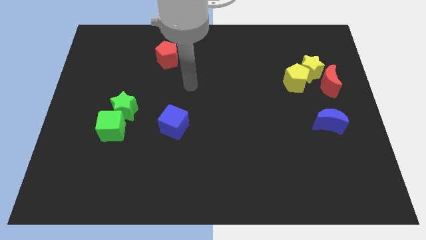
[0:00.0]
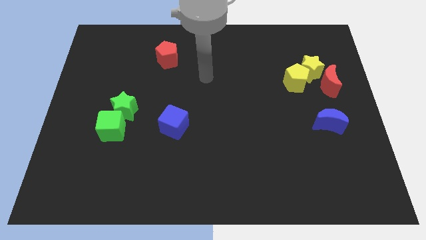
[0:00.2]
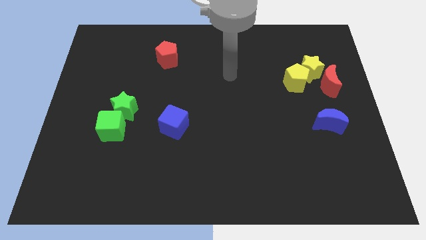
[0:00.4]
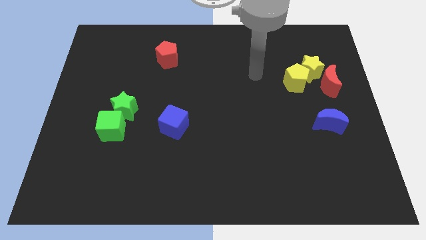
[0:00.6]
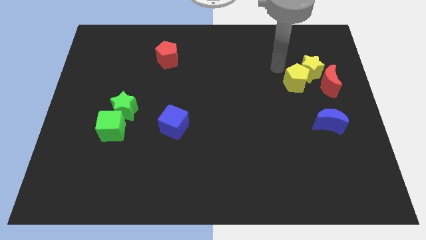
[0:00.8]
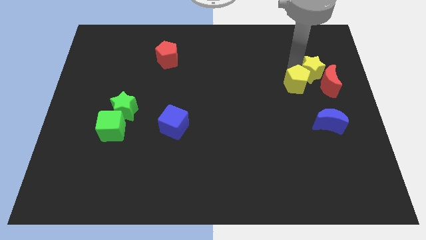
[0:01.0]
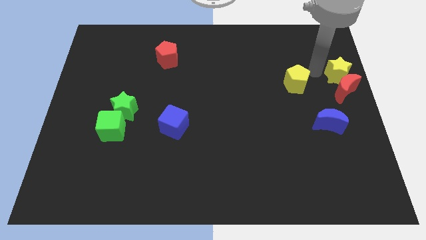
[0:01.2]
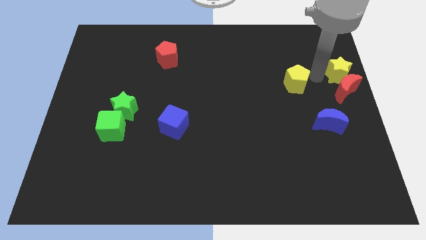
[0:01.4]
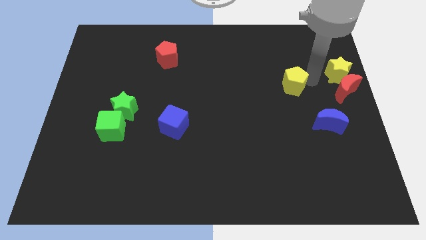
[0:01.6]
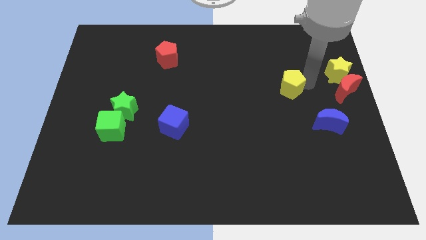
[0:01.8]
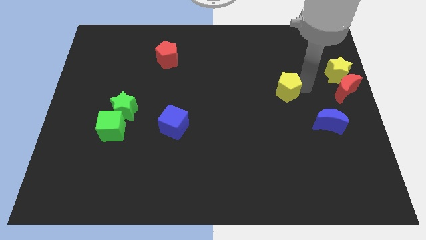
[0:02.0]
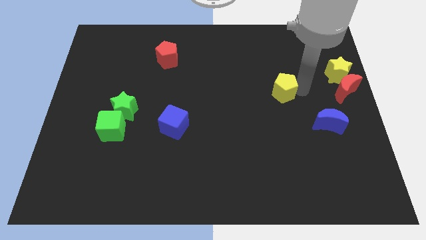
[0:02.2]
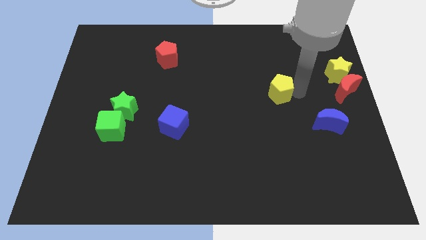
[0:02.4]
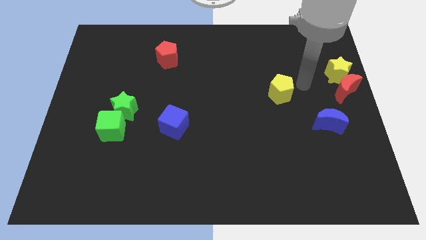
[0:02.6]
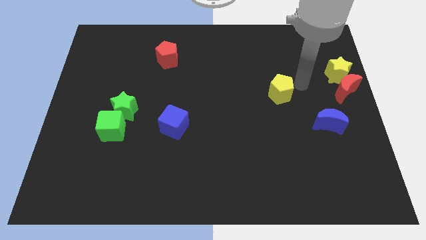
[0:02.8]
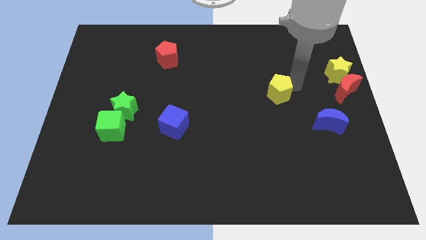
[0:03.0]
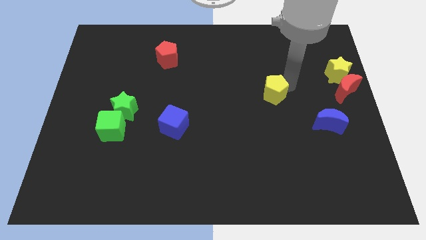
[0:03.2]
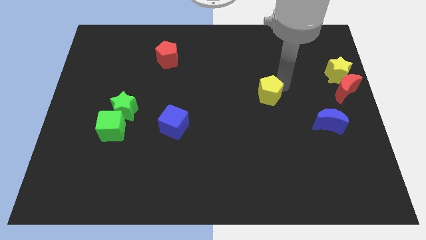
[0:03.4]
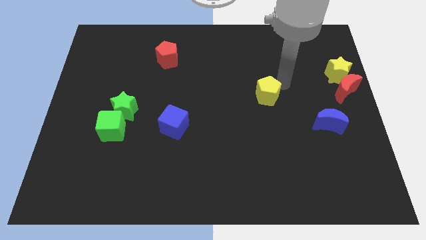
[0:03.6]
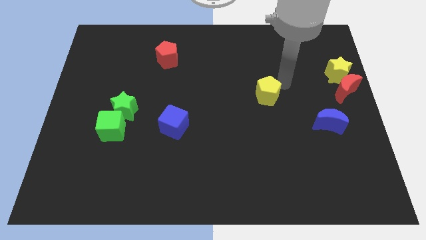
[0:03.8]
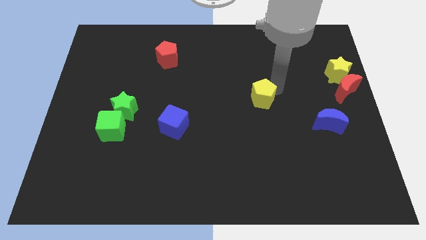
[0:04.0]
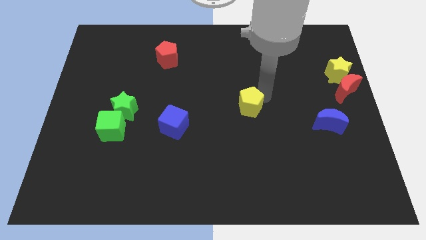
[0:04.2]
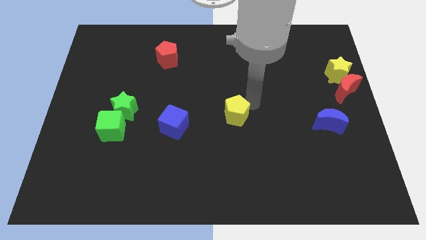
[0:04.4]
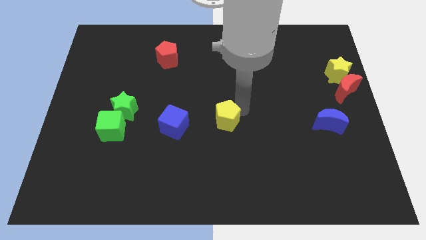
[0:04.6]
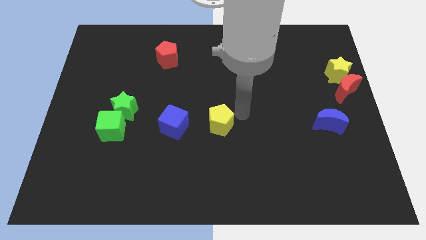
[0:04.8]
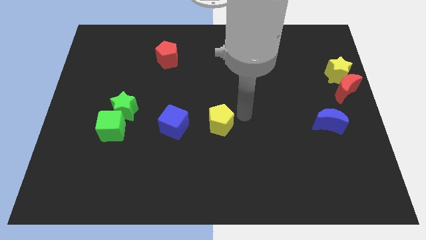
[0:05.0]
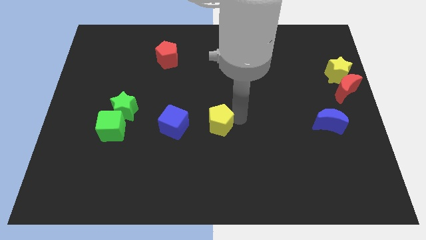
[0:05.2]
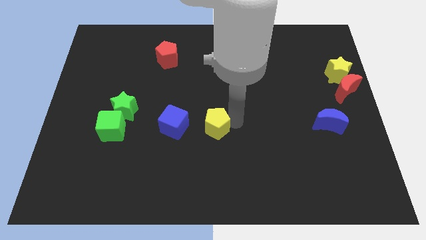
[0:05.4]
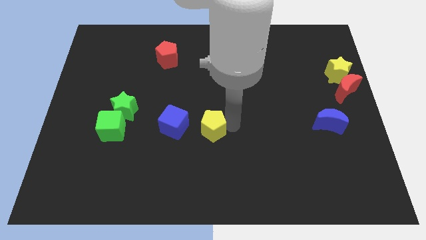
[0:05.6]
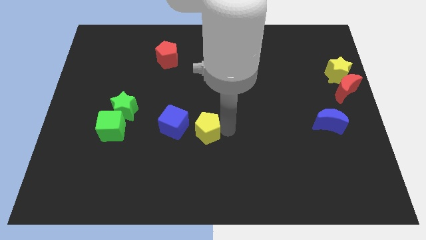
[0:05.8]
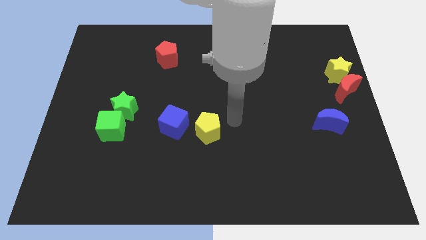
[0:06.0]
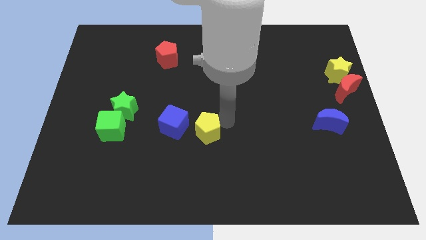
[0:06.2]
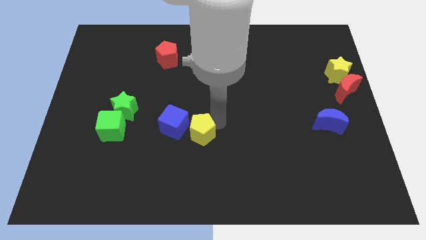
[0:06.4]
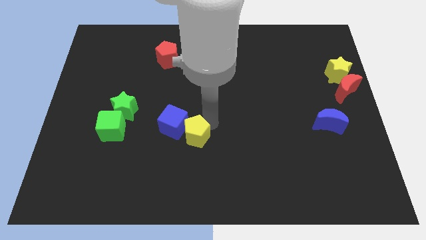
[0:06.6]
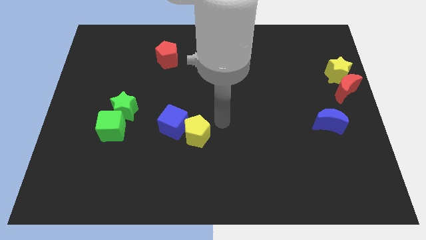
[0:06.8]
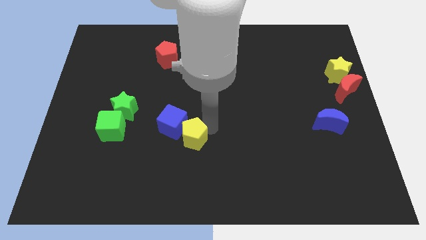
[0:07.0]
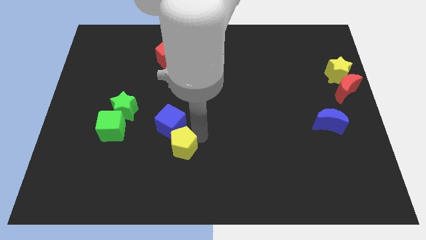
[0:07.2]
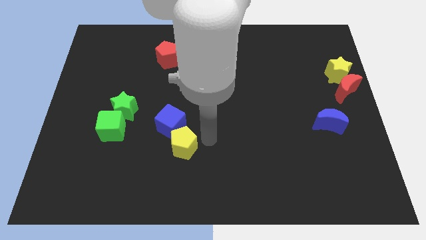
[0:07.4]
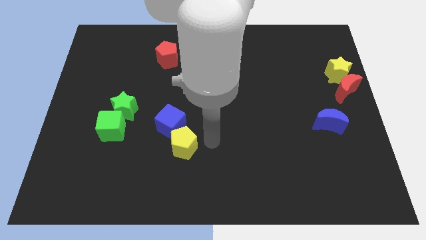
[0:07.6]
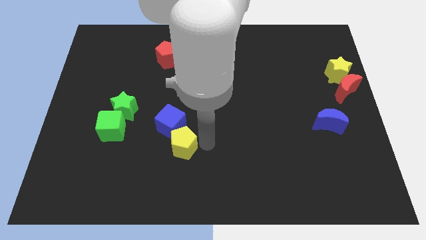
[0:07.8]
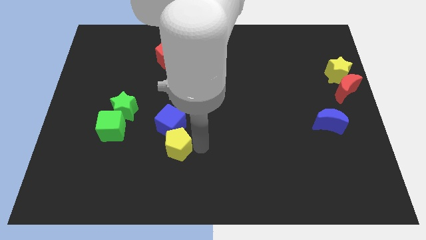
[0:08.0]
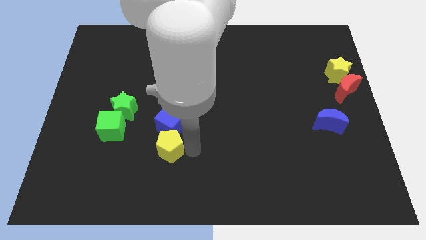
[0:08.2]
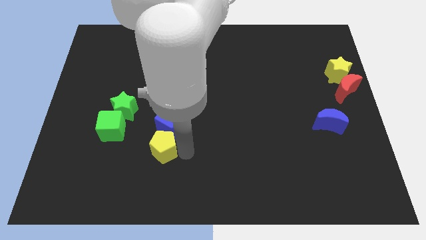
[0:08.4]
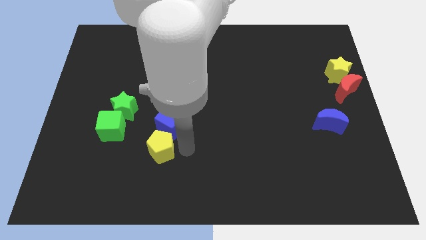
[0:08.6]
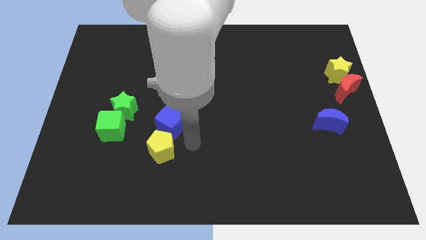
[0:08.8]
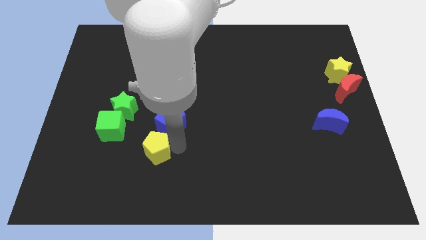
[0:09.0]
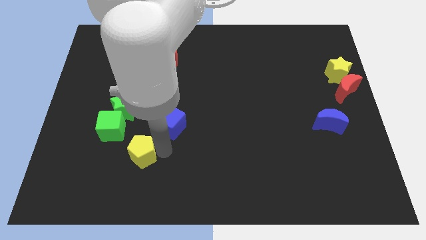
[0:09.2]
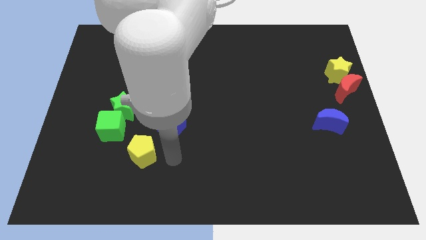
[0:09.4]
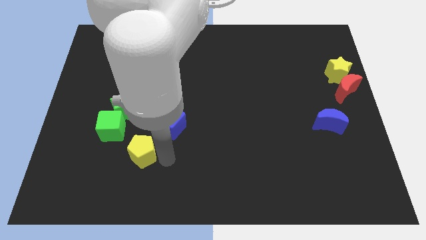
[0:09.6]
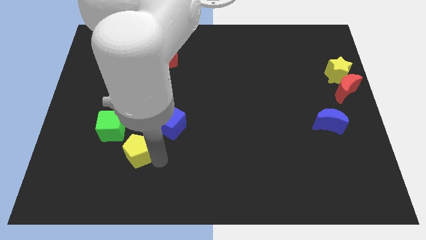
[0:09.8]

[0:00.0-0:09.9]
slide the yellow pentagon to the bottom of the green star

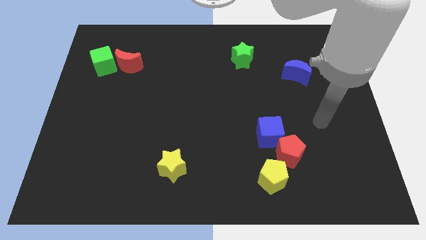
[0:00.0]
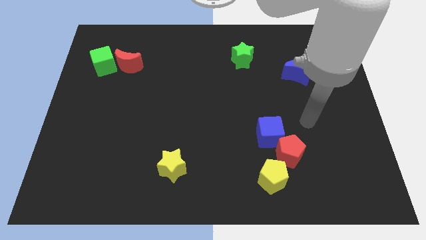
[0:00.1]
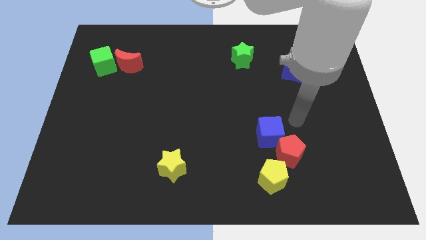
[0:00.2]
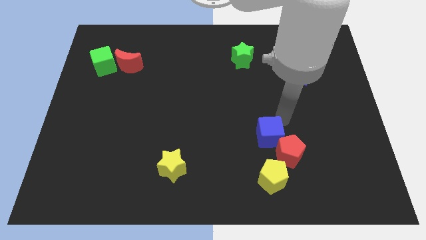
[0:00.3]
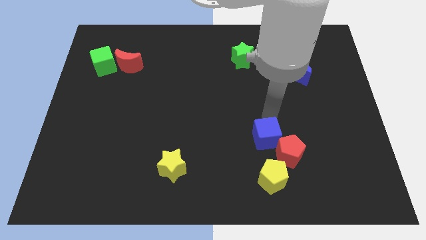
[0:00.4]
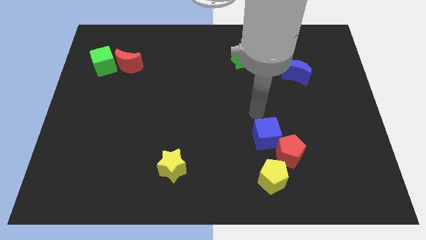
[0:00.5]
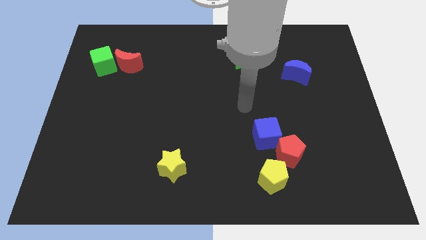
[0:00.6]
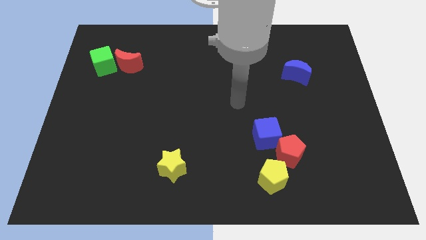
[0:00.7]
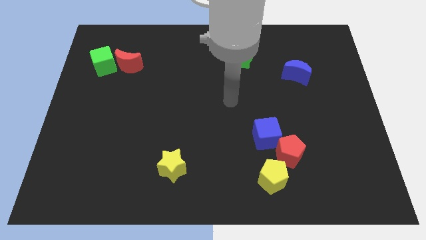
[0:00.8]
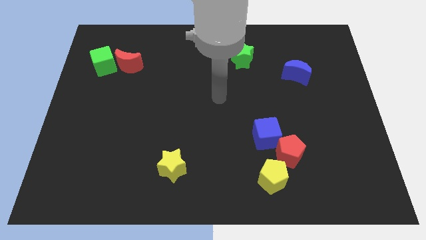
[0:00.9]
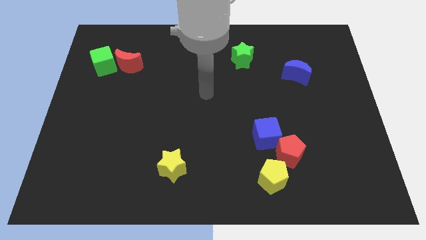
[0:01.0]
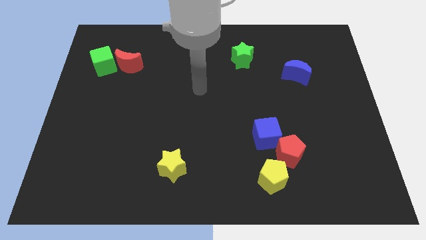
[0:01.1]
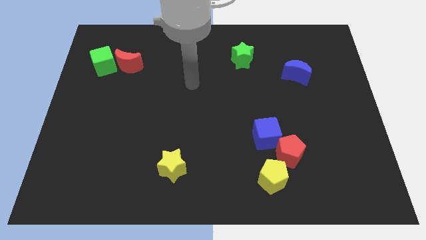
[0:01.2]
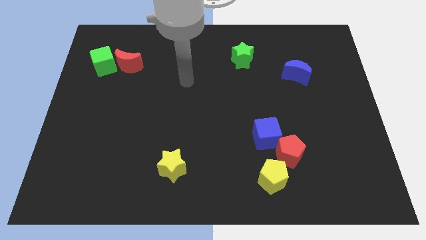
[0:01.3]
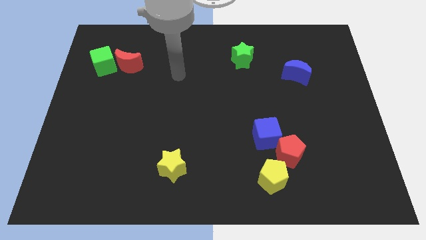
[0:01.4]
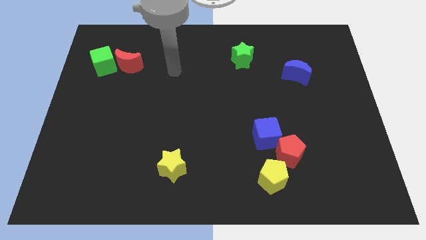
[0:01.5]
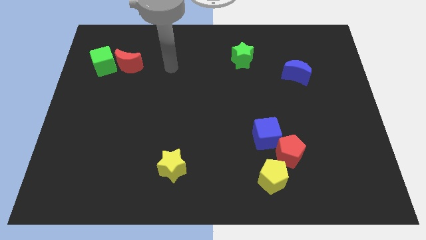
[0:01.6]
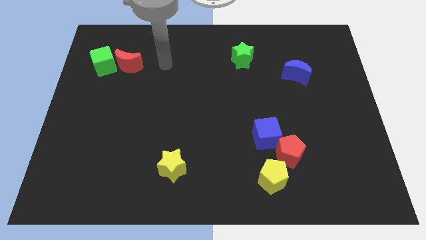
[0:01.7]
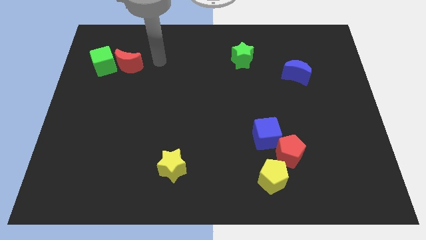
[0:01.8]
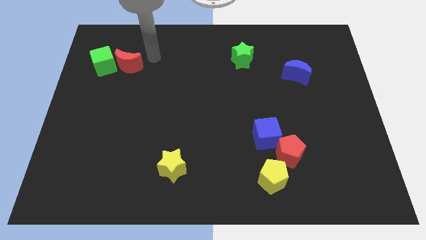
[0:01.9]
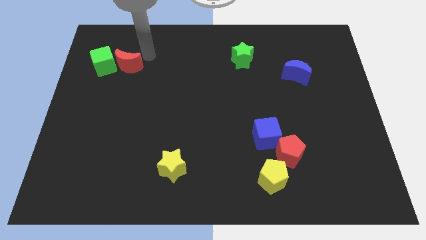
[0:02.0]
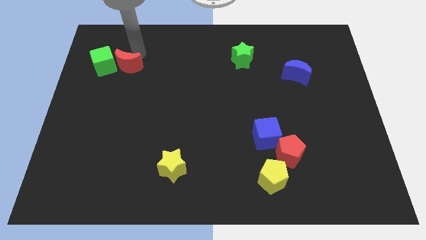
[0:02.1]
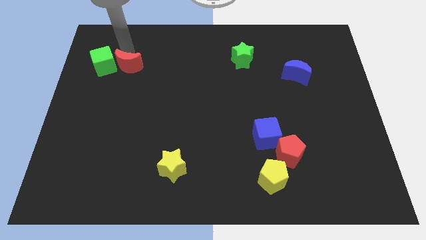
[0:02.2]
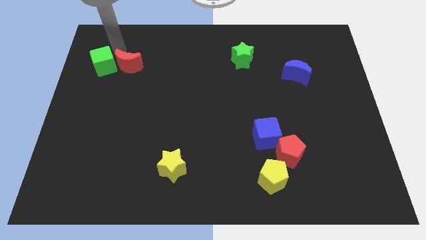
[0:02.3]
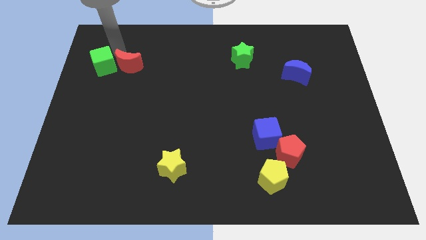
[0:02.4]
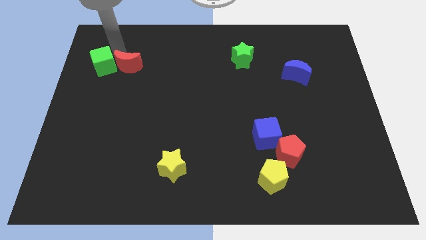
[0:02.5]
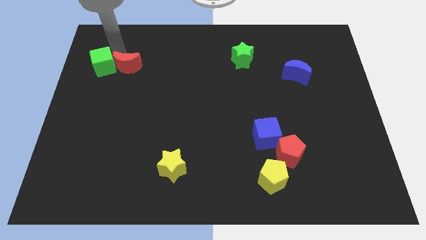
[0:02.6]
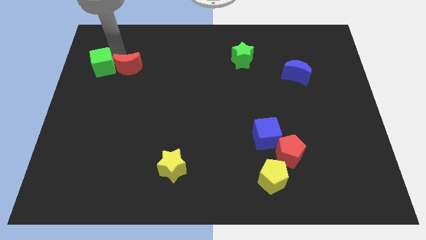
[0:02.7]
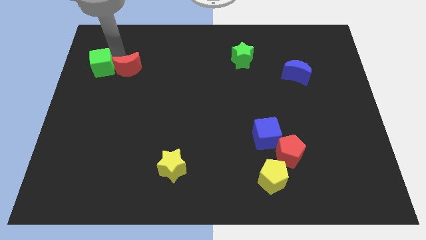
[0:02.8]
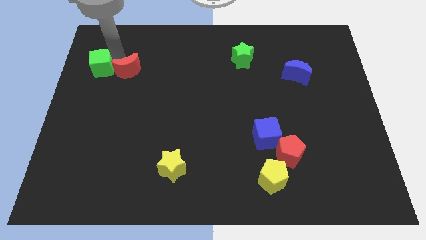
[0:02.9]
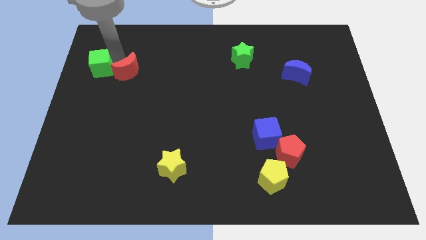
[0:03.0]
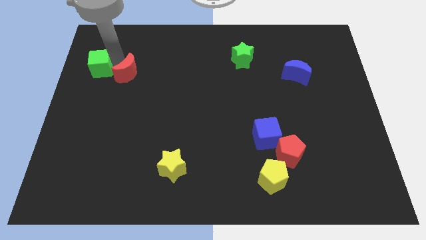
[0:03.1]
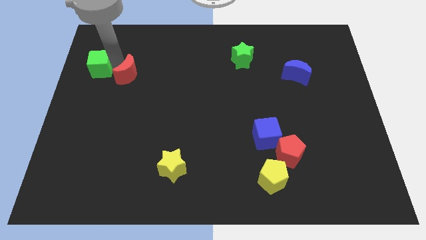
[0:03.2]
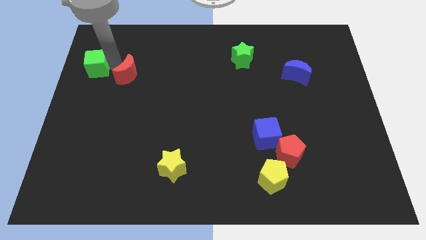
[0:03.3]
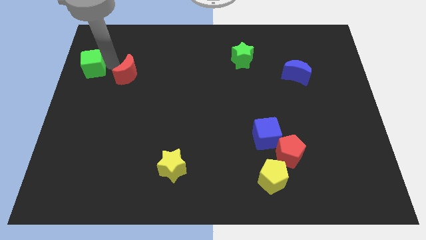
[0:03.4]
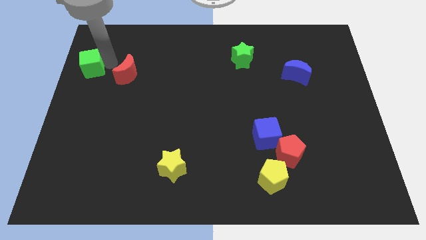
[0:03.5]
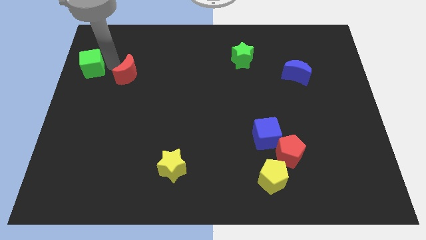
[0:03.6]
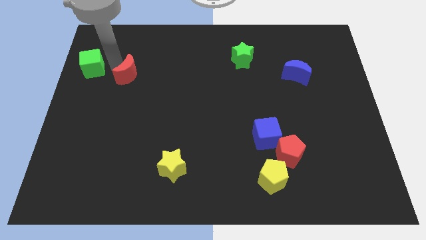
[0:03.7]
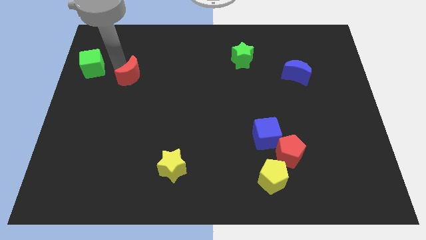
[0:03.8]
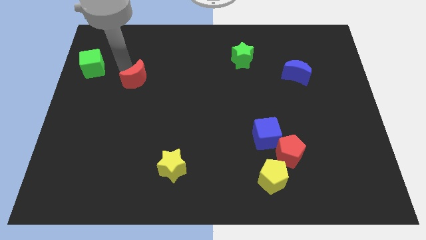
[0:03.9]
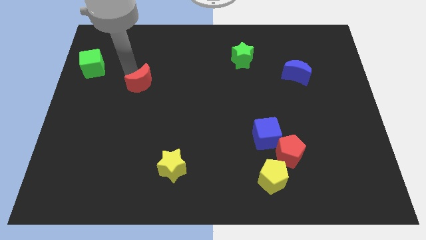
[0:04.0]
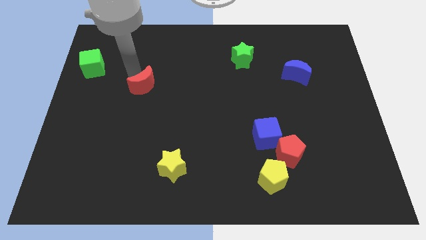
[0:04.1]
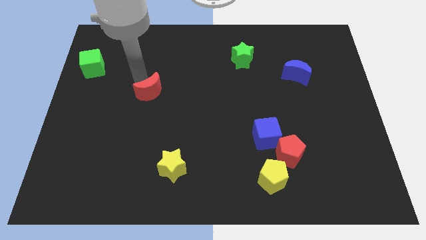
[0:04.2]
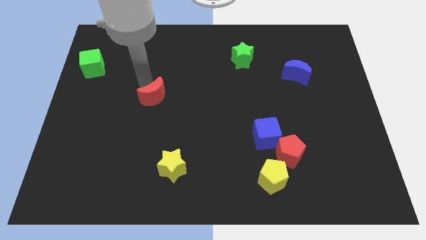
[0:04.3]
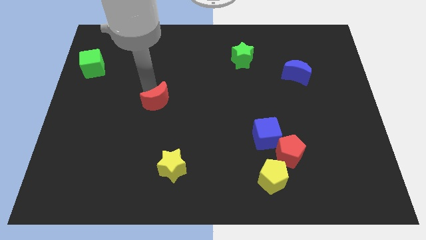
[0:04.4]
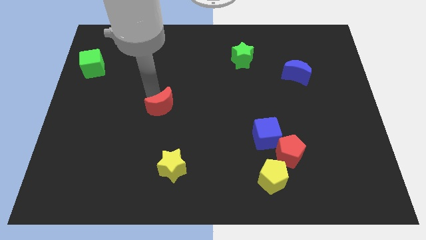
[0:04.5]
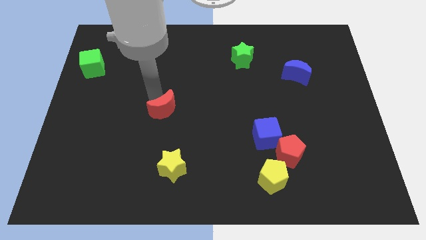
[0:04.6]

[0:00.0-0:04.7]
move the red moon to the top of the yellow star
